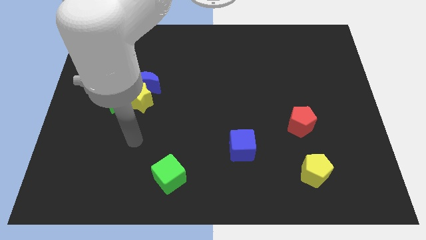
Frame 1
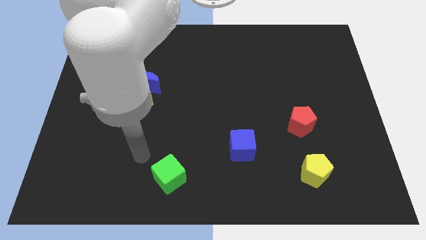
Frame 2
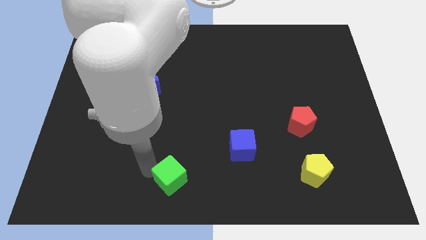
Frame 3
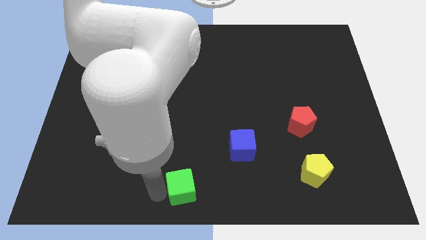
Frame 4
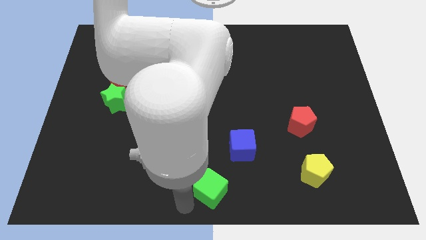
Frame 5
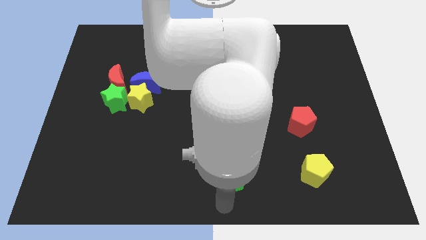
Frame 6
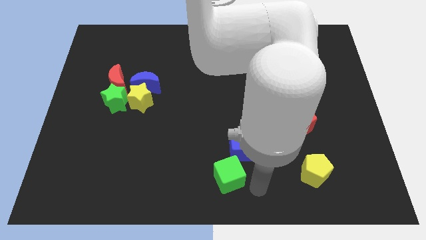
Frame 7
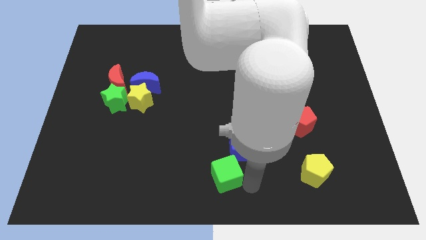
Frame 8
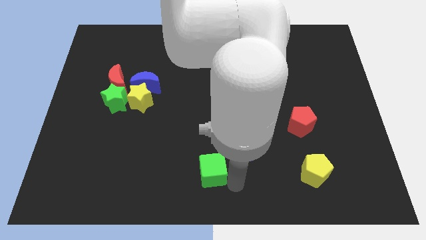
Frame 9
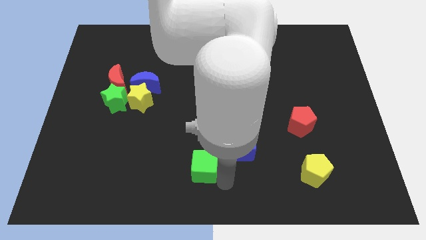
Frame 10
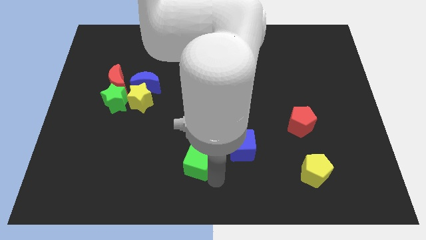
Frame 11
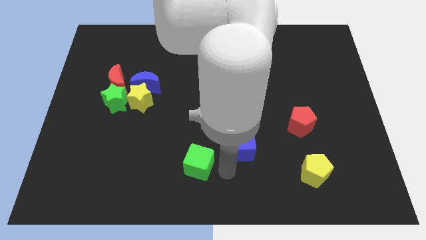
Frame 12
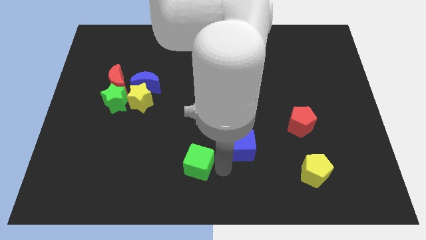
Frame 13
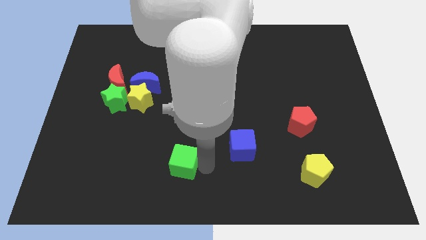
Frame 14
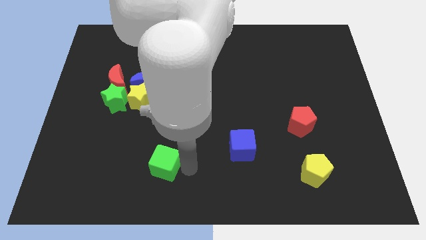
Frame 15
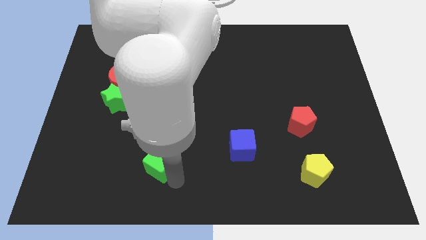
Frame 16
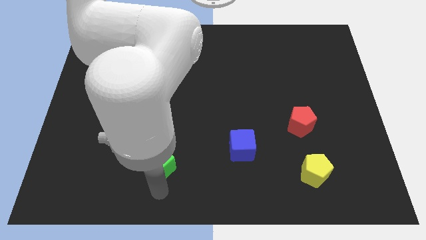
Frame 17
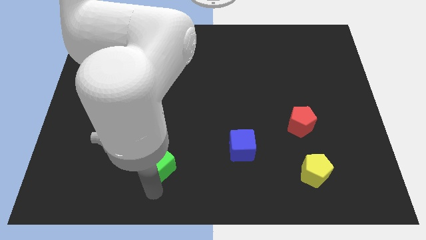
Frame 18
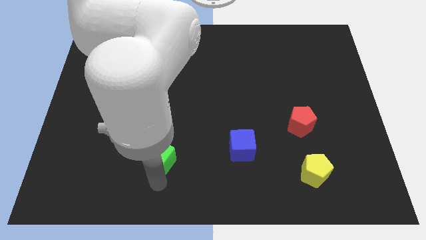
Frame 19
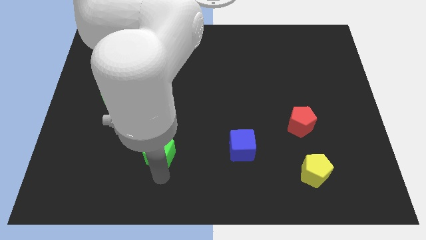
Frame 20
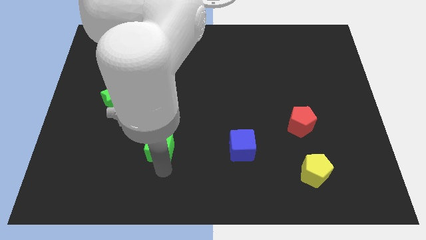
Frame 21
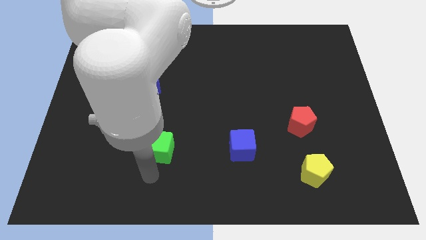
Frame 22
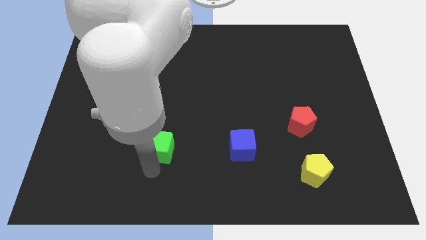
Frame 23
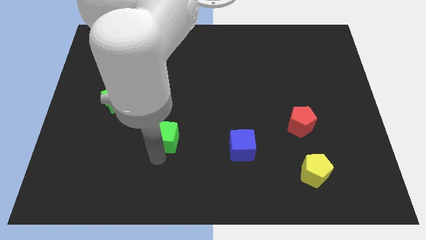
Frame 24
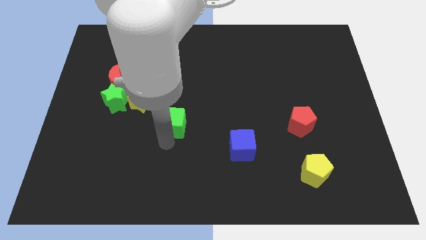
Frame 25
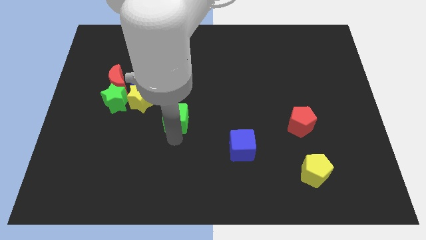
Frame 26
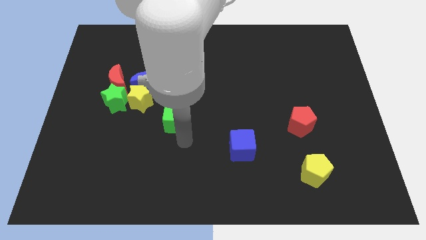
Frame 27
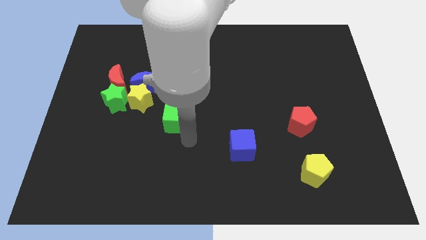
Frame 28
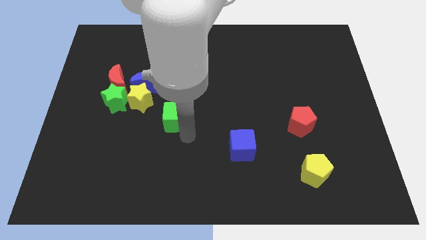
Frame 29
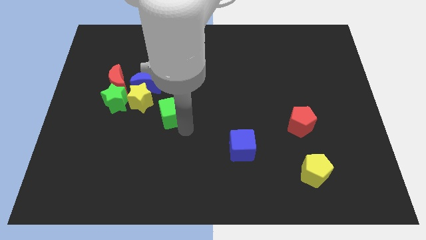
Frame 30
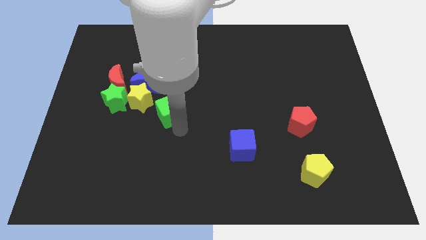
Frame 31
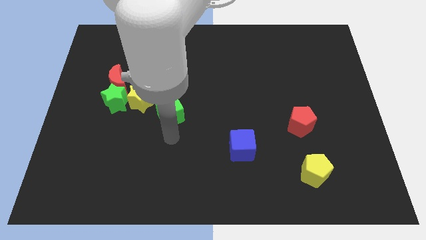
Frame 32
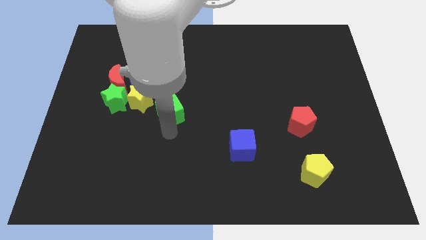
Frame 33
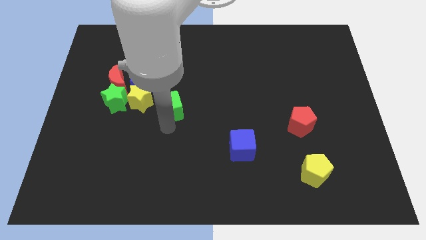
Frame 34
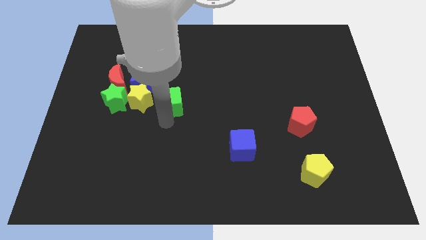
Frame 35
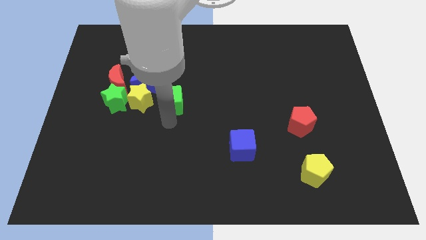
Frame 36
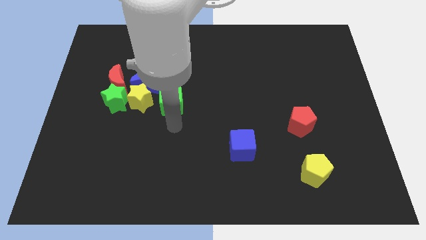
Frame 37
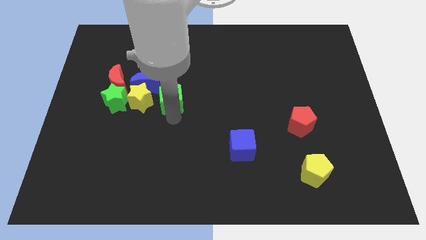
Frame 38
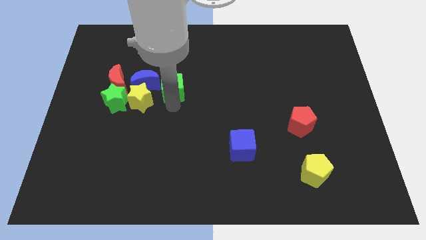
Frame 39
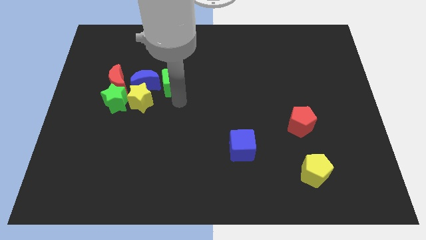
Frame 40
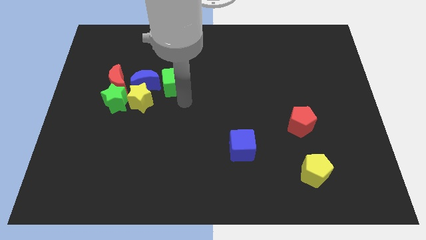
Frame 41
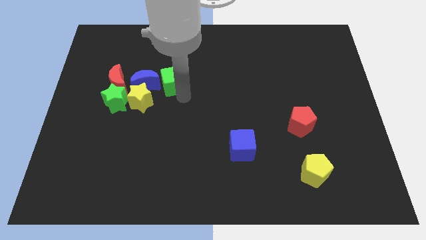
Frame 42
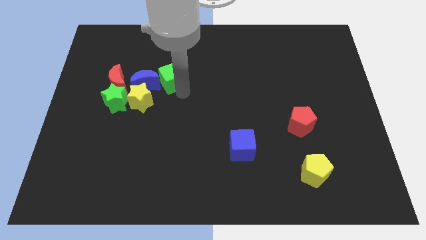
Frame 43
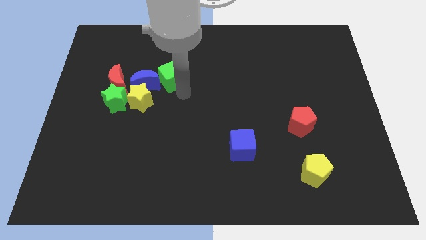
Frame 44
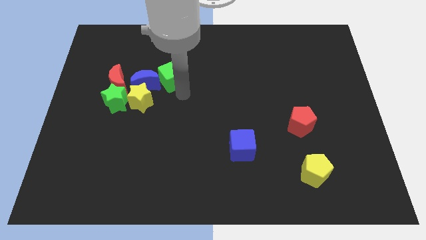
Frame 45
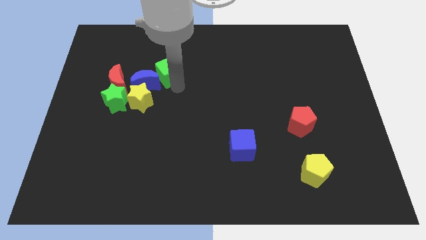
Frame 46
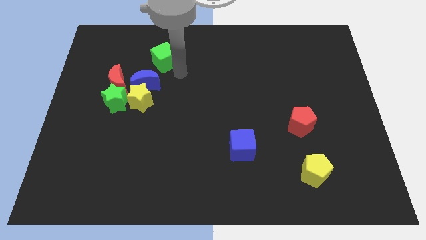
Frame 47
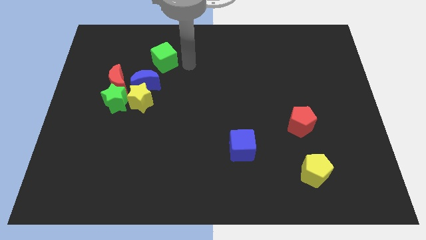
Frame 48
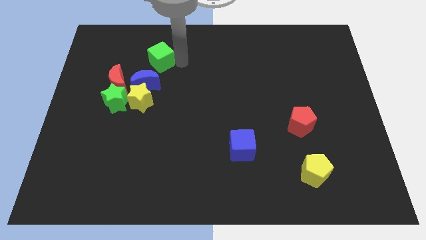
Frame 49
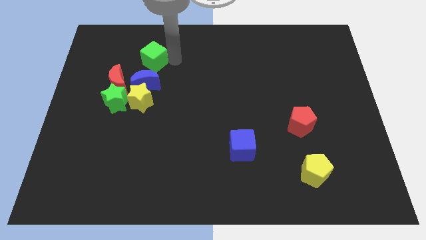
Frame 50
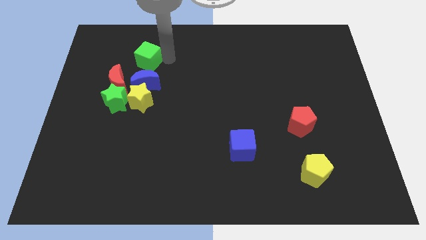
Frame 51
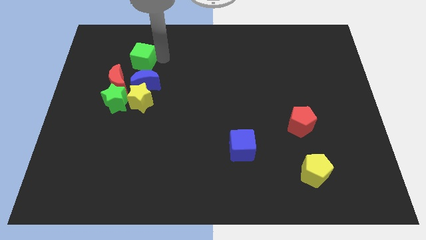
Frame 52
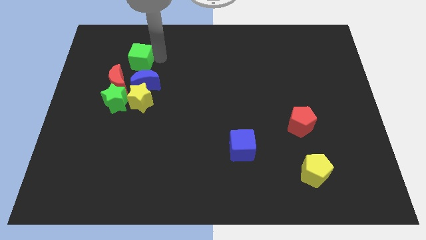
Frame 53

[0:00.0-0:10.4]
push the green cube to the top side of the red moon

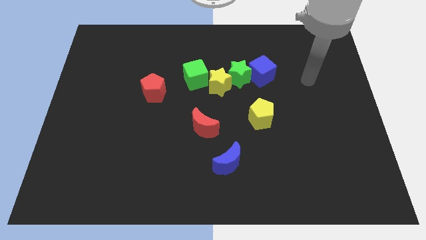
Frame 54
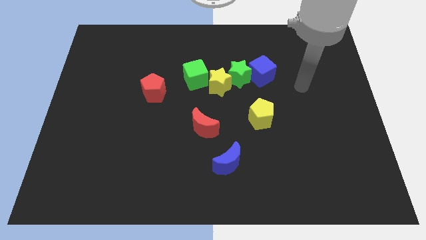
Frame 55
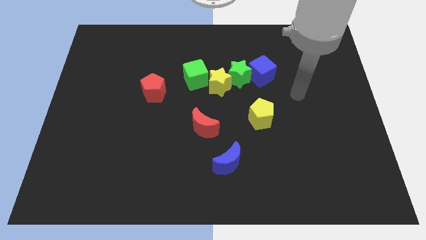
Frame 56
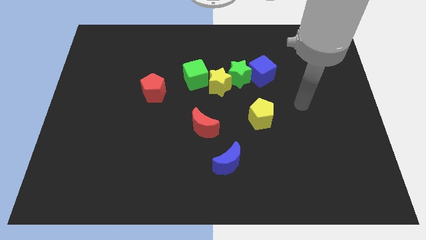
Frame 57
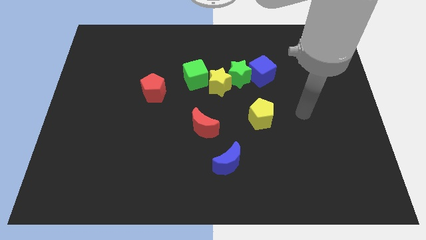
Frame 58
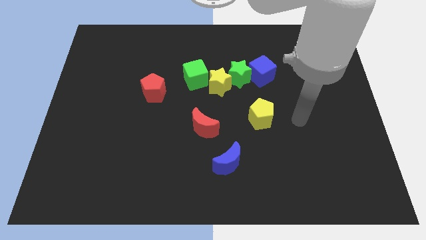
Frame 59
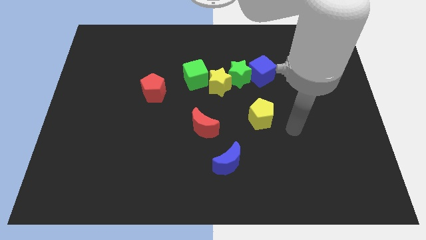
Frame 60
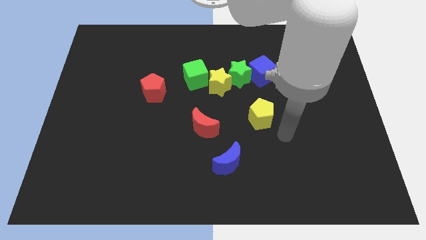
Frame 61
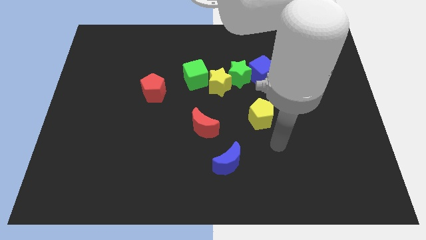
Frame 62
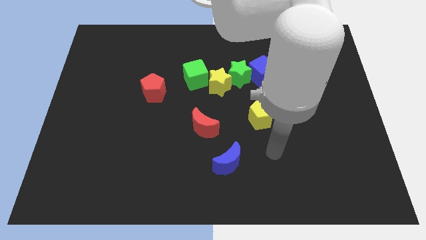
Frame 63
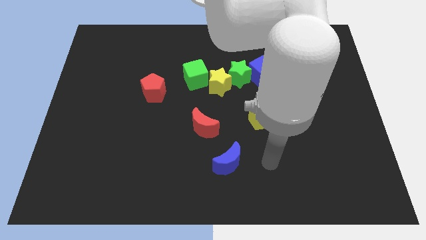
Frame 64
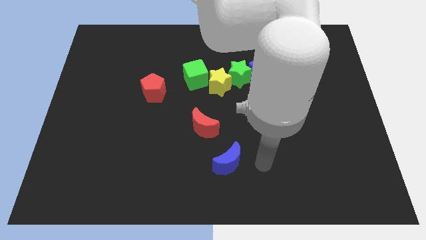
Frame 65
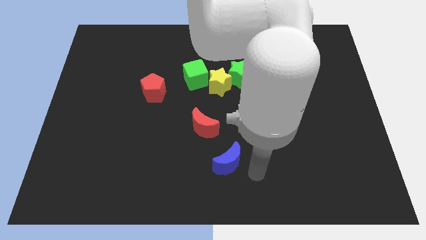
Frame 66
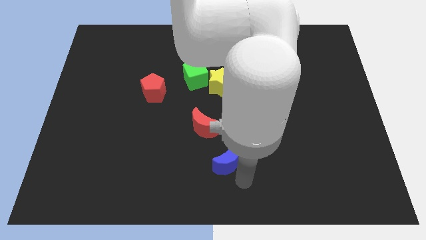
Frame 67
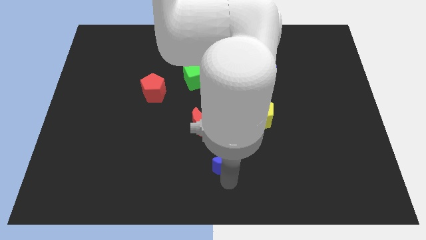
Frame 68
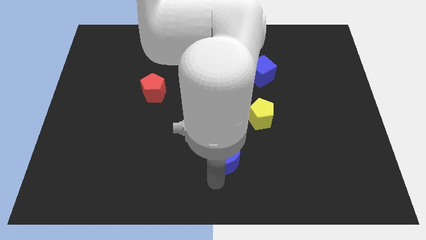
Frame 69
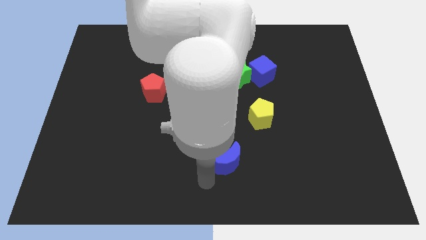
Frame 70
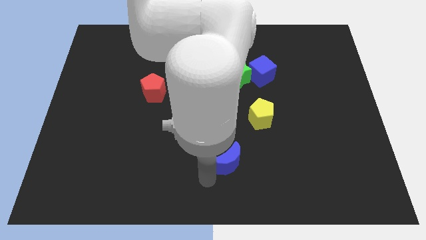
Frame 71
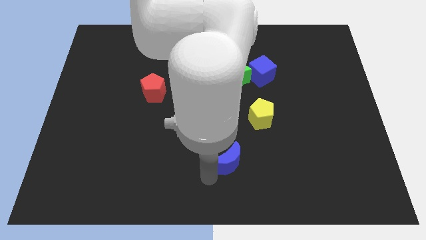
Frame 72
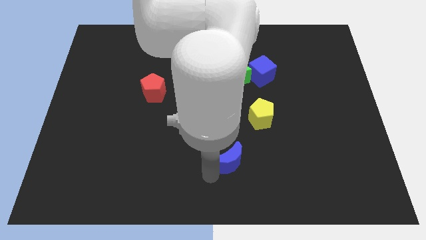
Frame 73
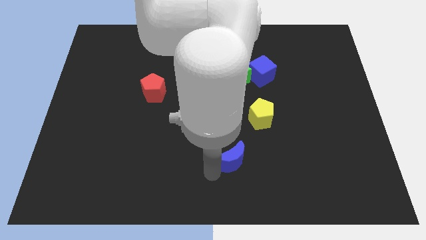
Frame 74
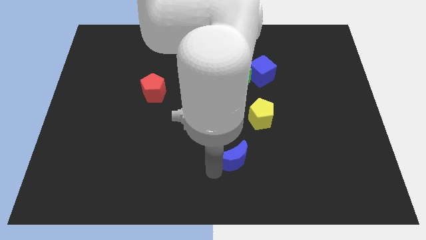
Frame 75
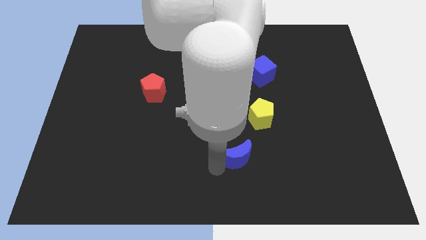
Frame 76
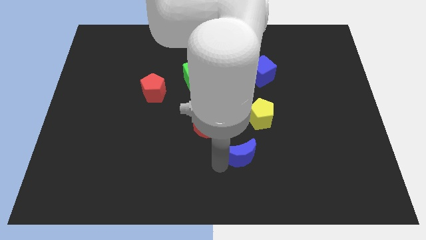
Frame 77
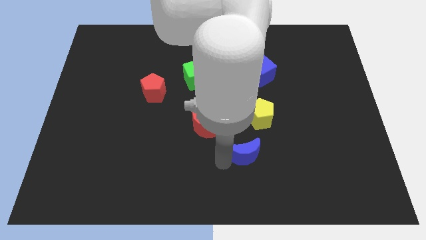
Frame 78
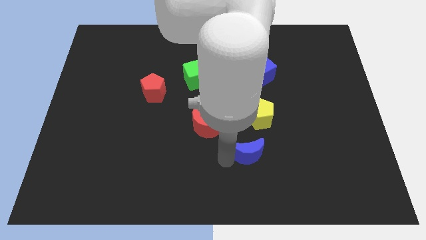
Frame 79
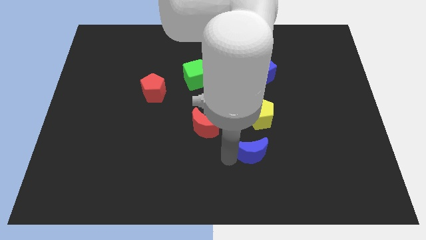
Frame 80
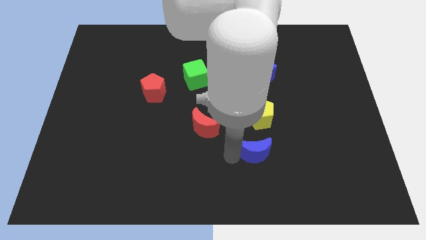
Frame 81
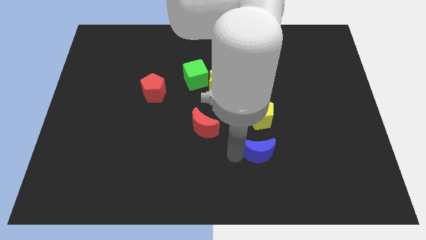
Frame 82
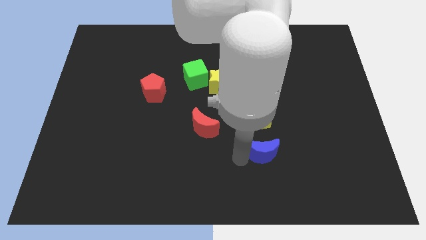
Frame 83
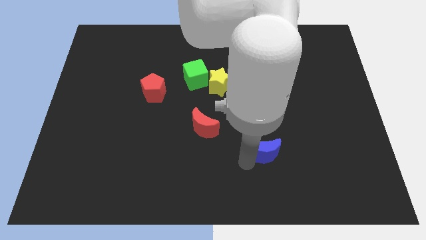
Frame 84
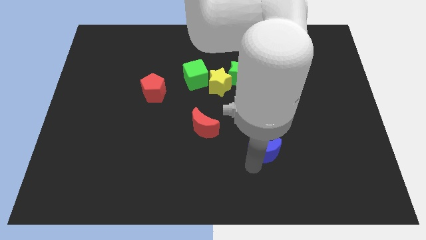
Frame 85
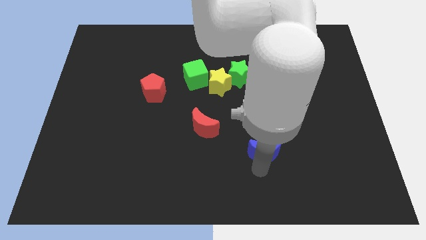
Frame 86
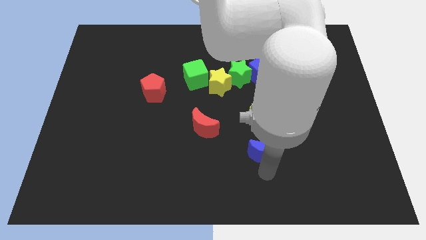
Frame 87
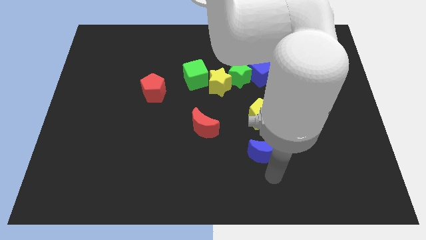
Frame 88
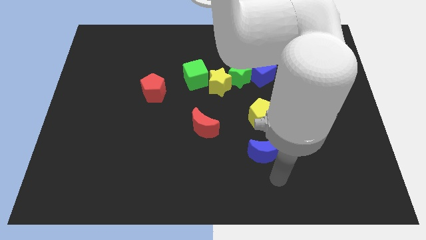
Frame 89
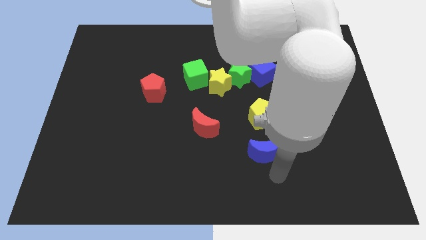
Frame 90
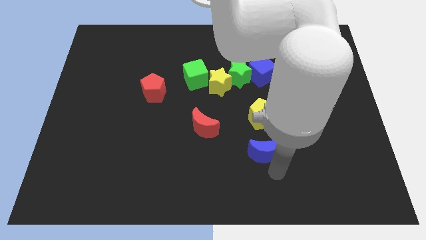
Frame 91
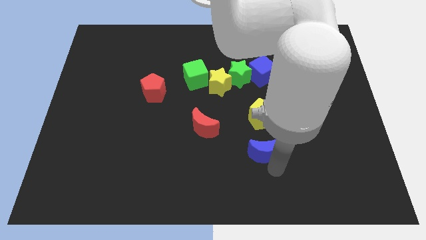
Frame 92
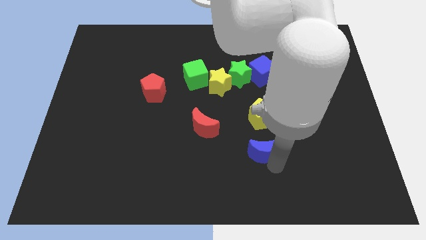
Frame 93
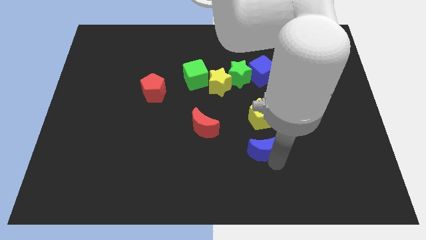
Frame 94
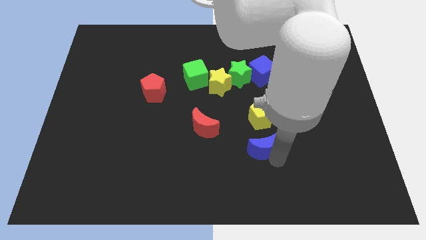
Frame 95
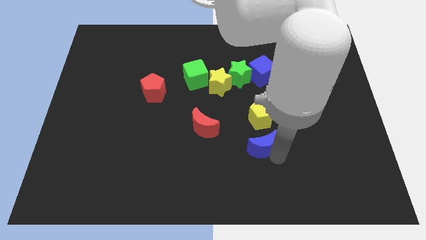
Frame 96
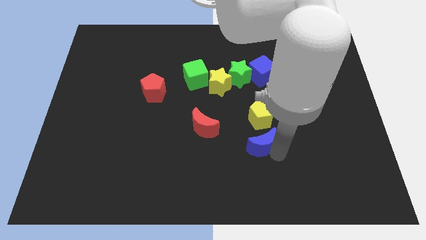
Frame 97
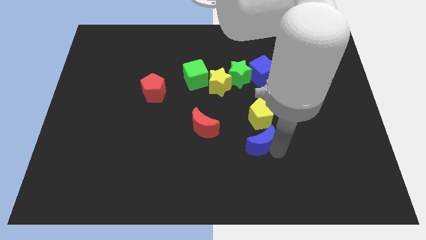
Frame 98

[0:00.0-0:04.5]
slide the blue moon just right of the red moon
